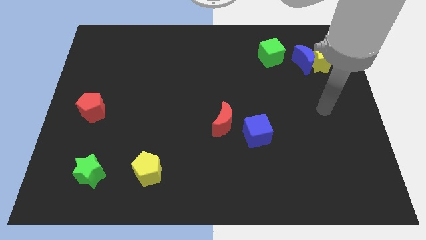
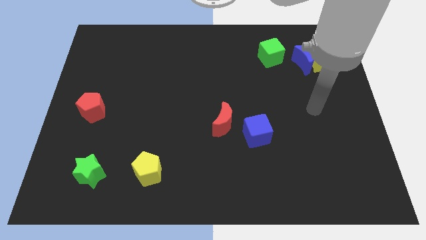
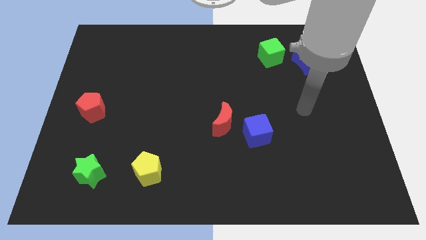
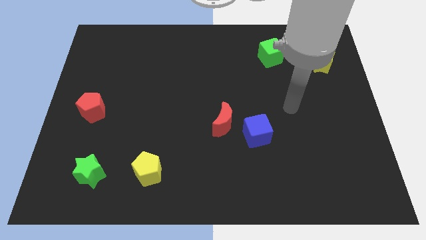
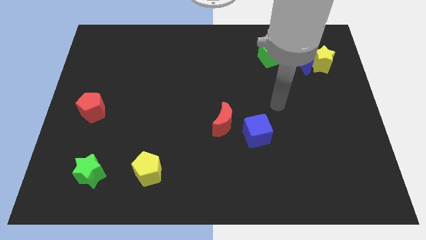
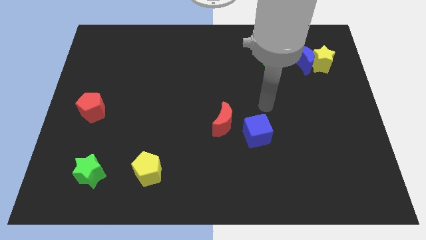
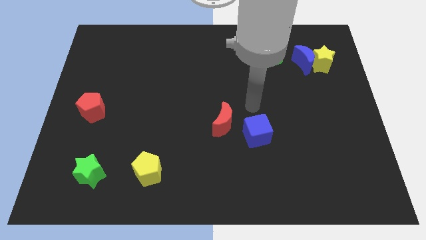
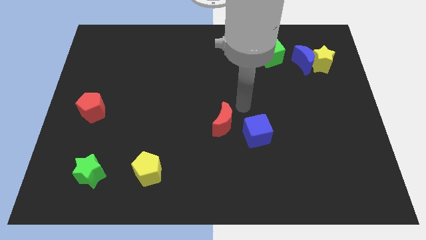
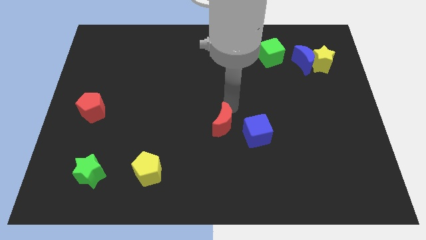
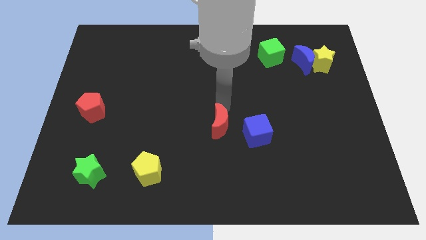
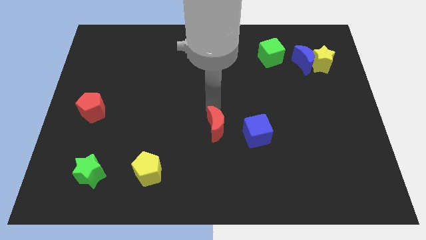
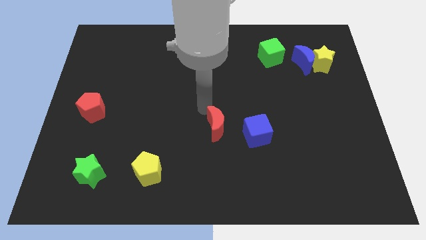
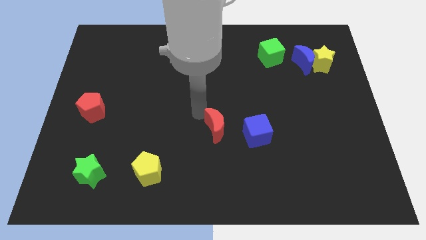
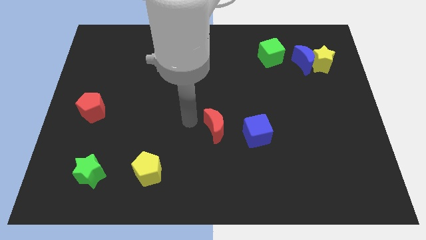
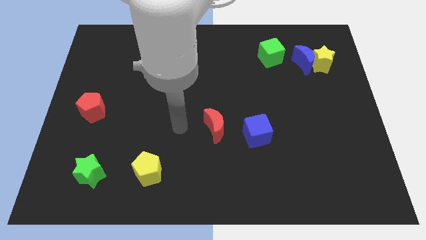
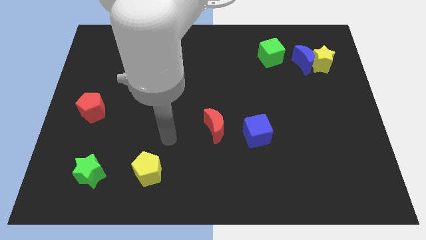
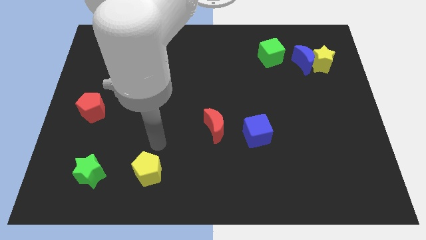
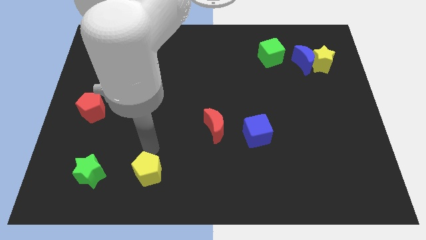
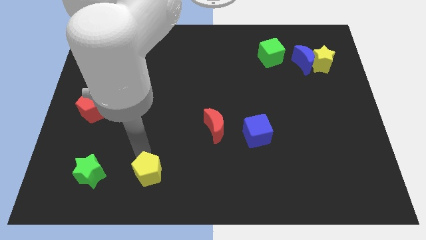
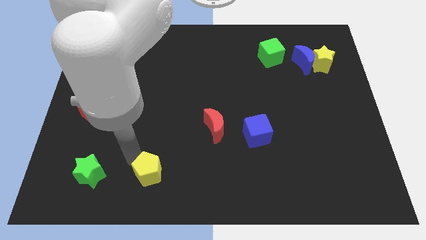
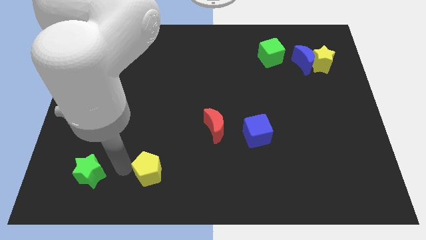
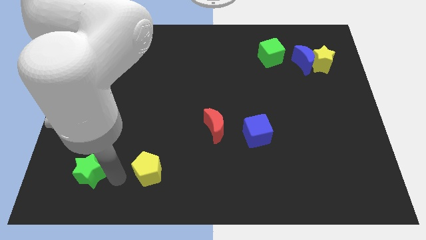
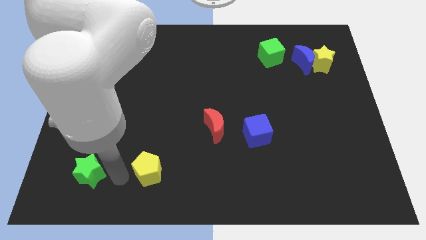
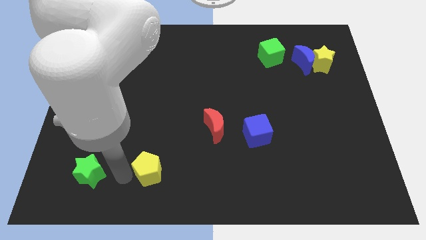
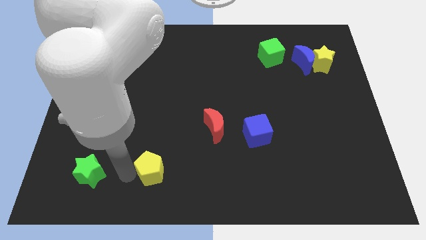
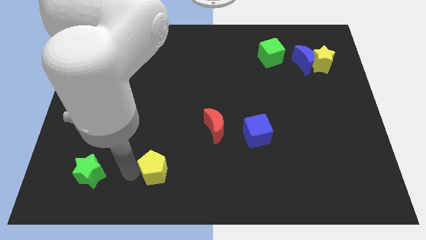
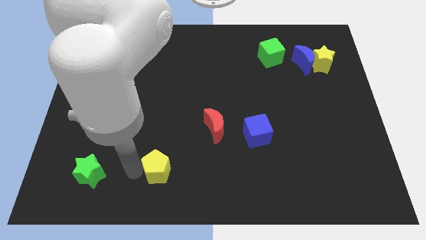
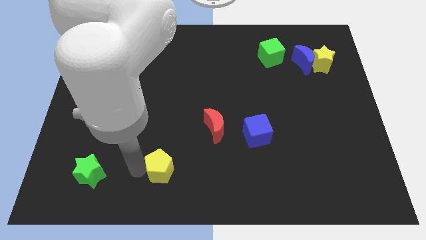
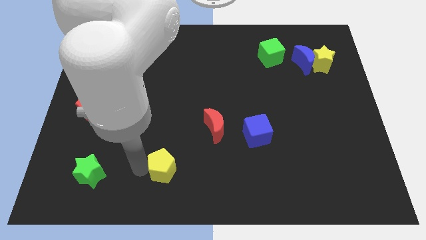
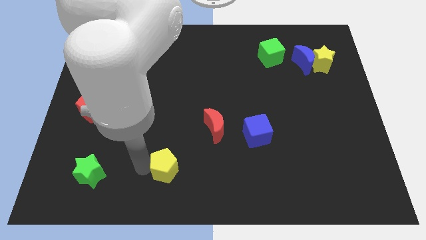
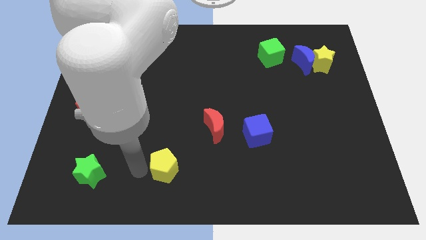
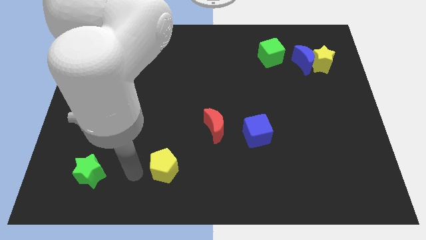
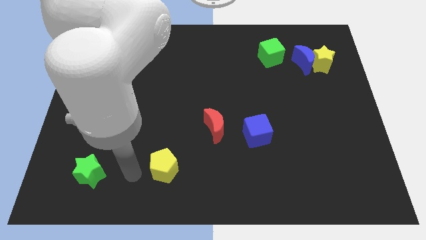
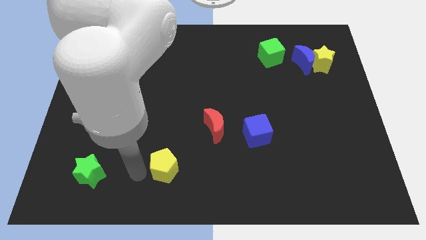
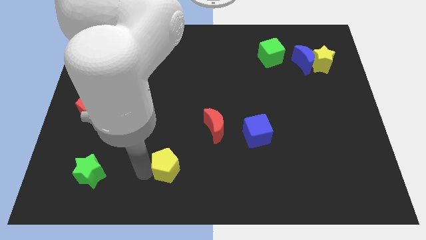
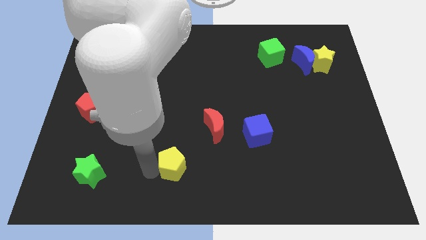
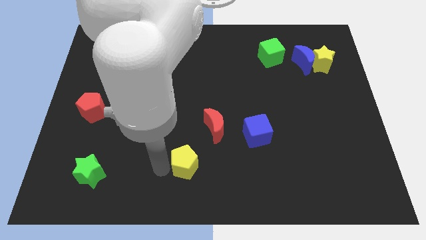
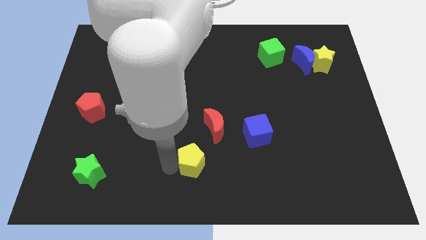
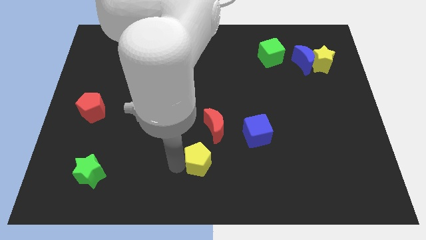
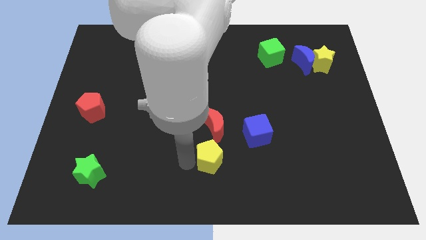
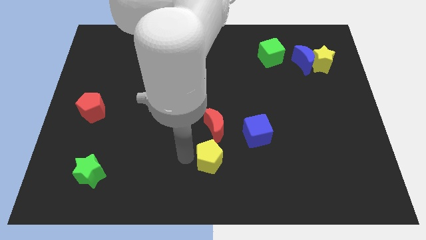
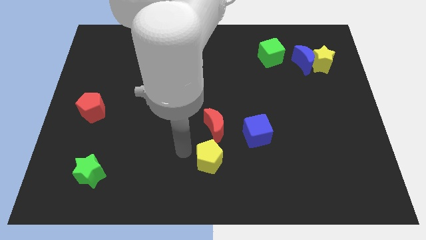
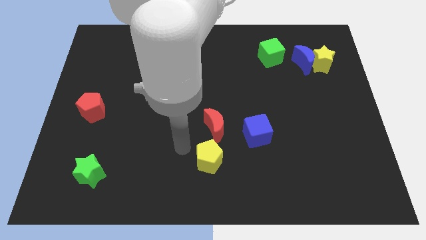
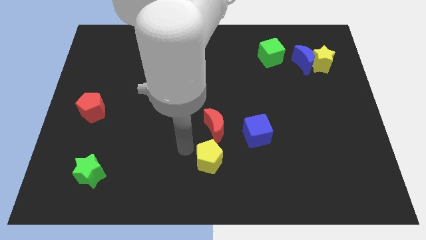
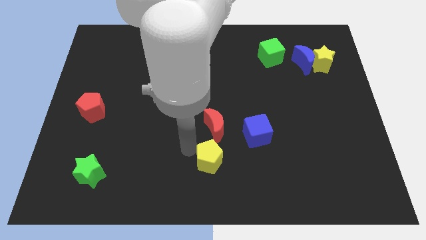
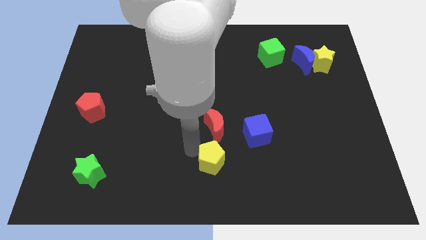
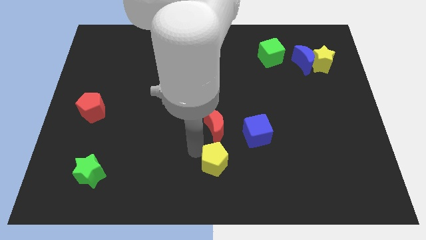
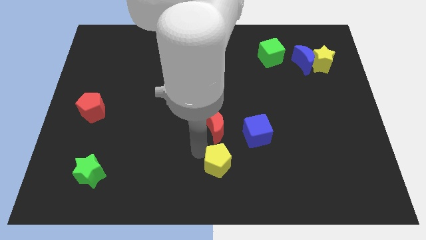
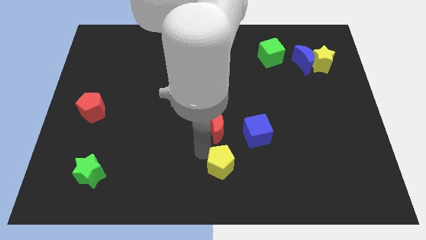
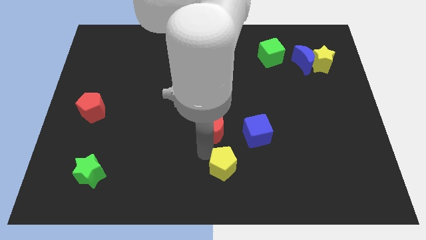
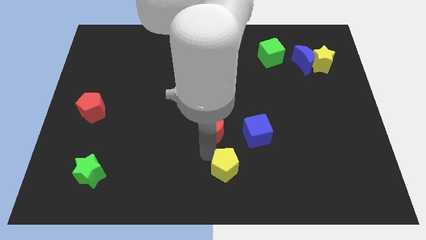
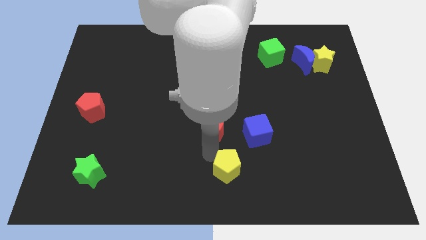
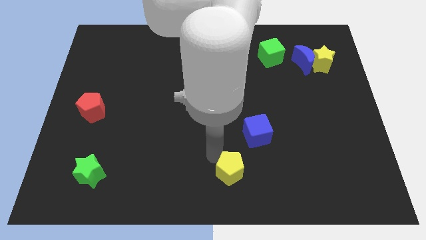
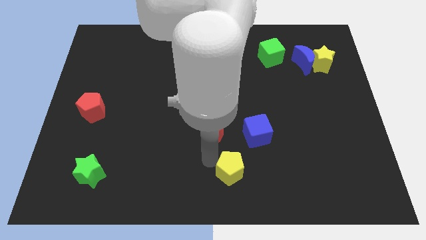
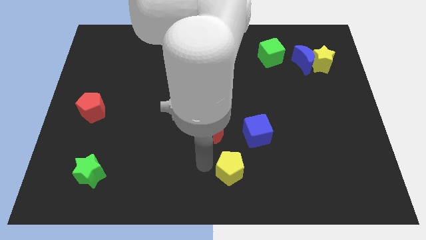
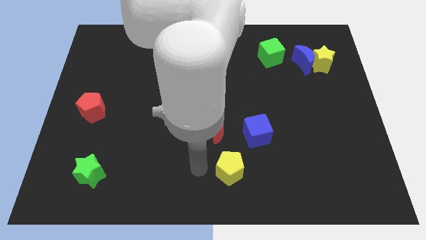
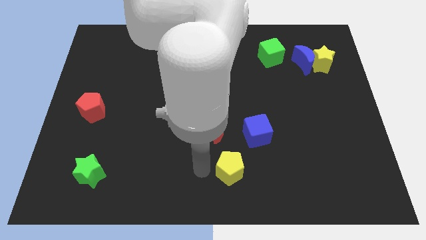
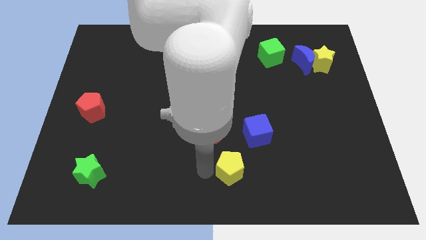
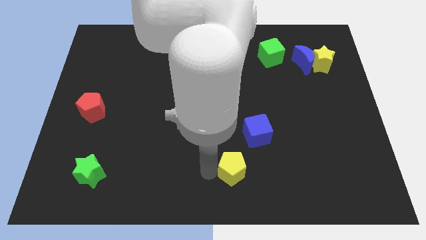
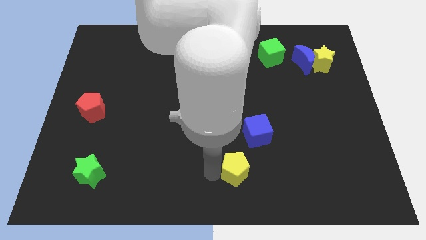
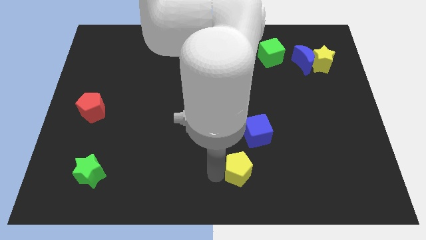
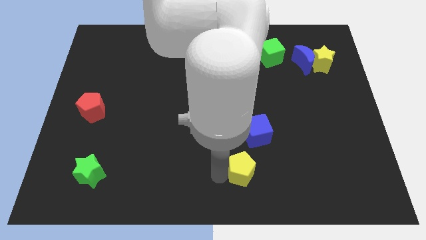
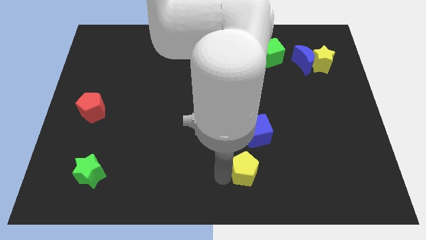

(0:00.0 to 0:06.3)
move the yellow pentagon right

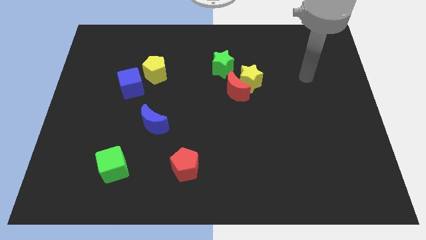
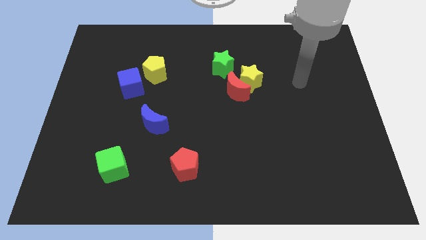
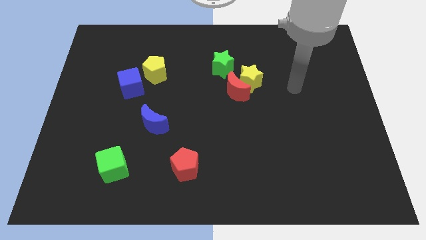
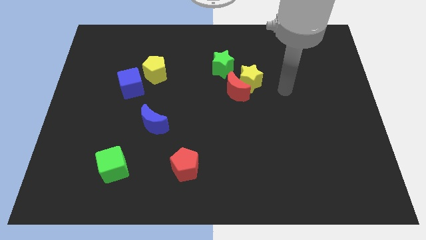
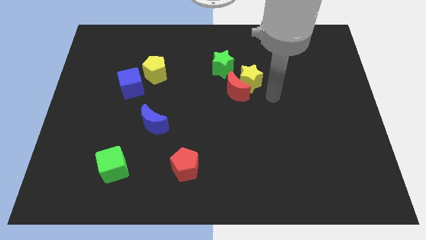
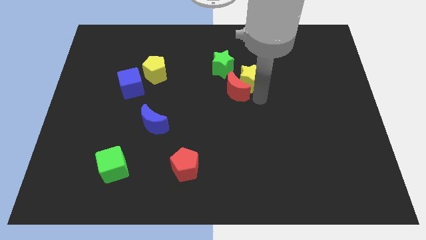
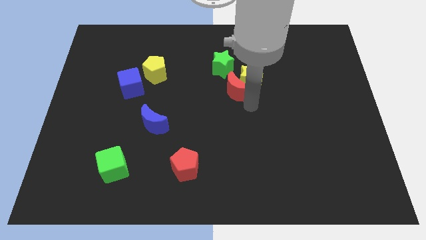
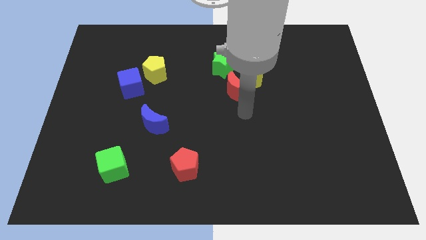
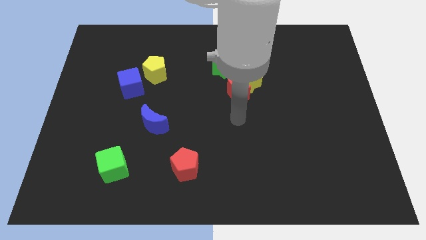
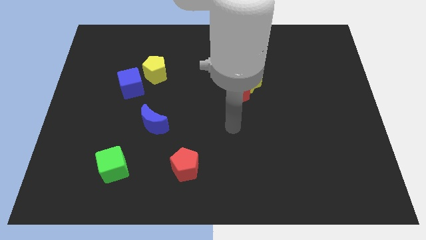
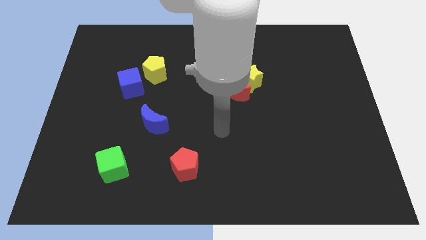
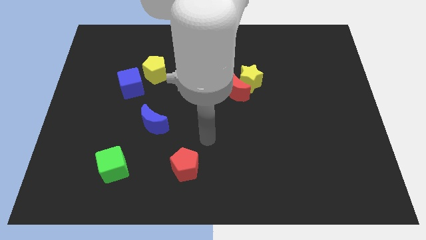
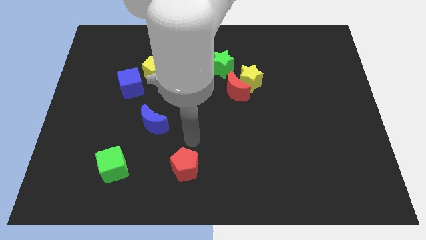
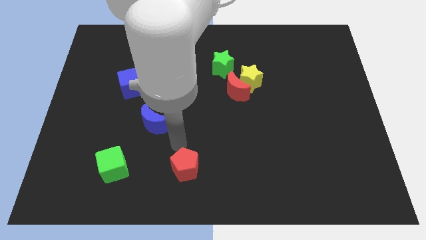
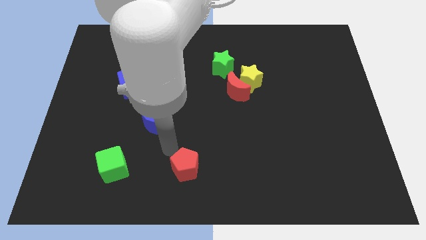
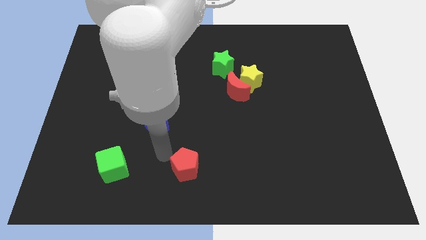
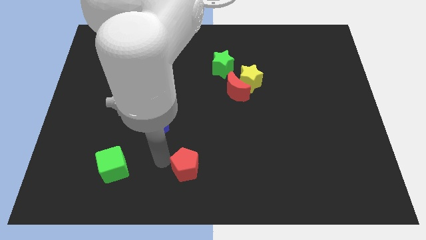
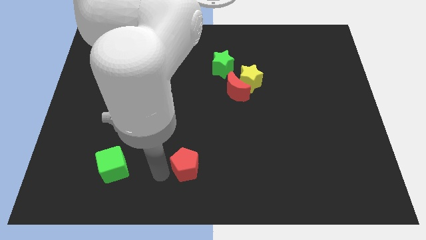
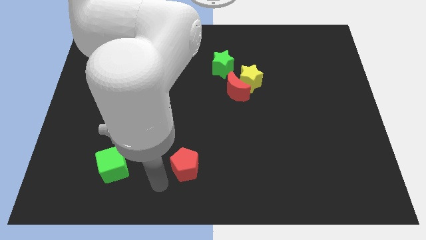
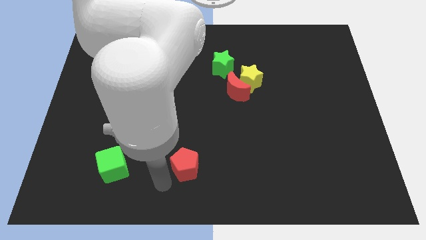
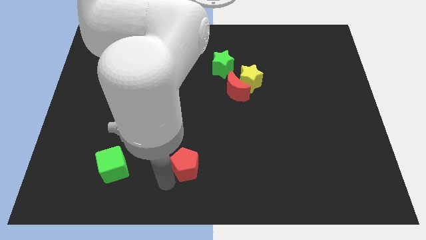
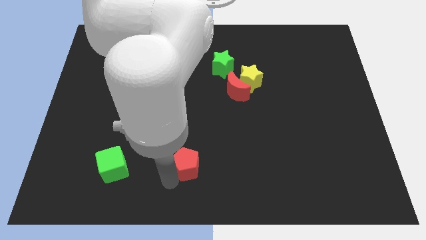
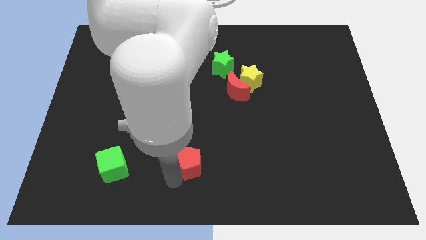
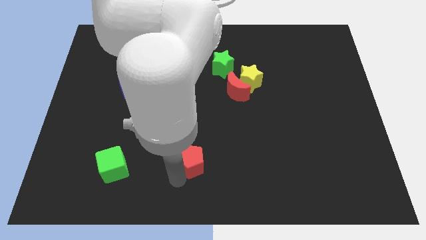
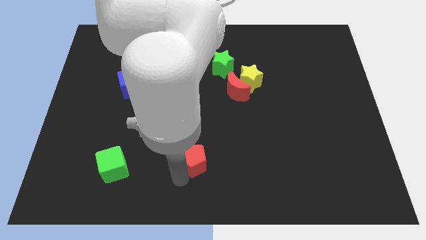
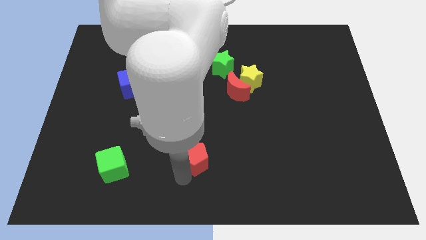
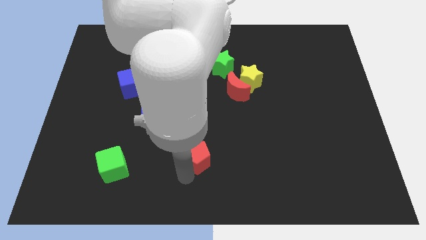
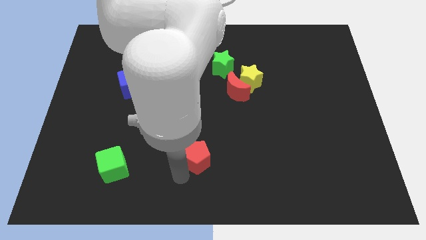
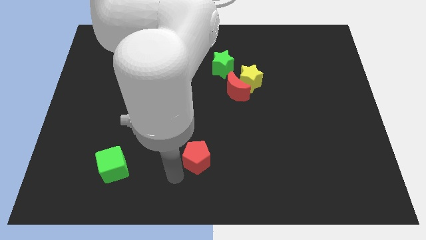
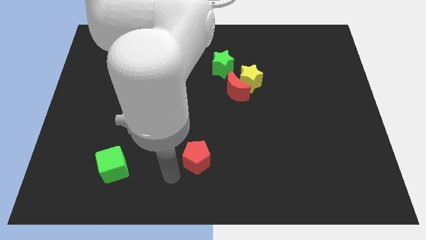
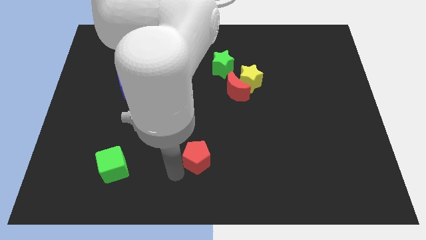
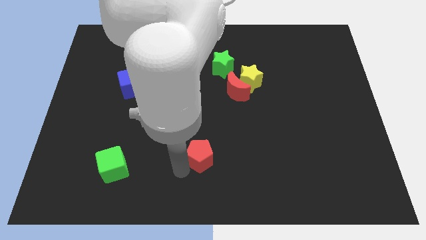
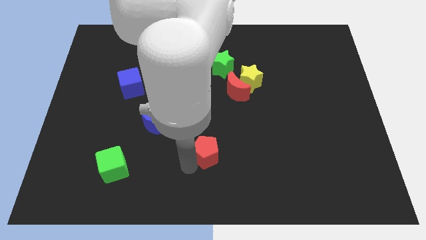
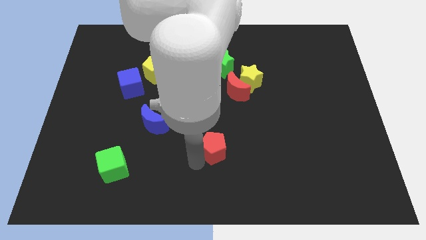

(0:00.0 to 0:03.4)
slide the red pentagon upwards and right diagonally slightly
